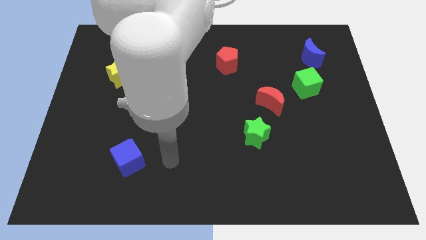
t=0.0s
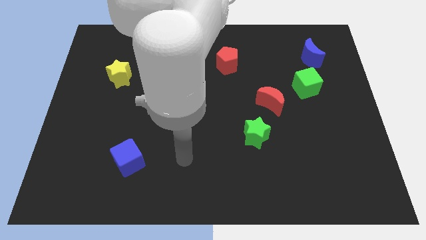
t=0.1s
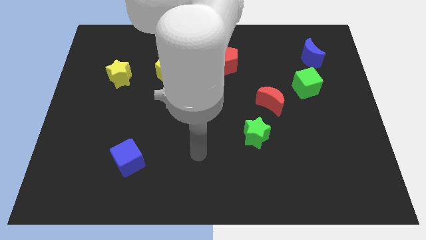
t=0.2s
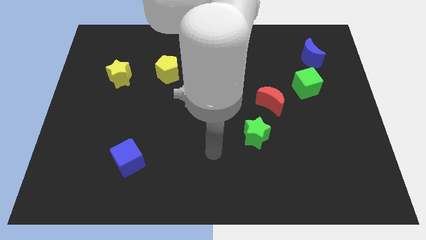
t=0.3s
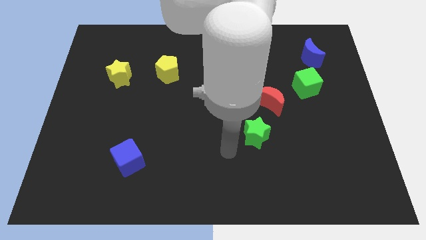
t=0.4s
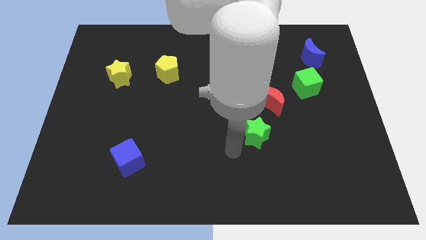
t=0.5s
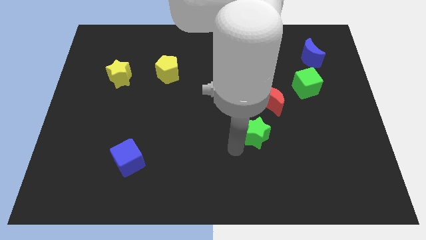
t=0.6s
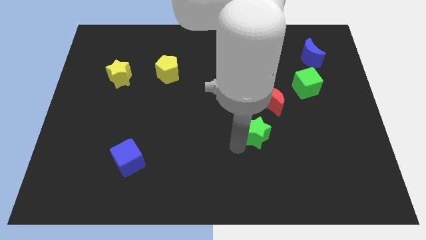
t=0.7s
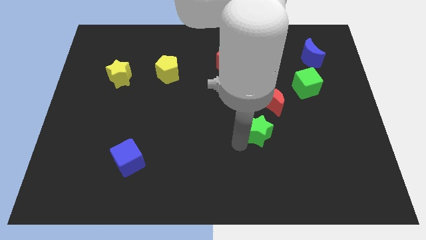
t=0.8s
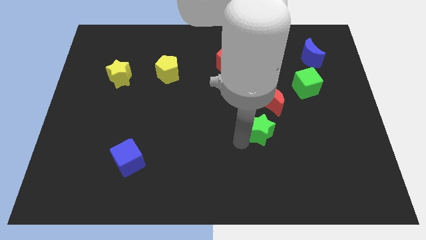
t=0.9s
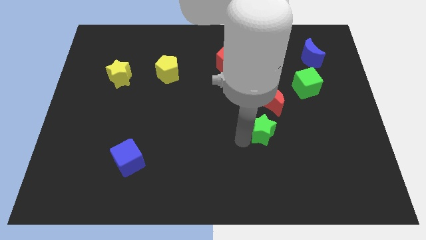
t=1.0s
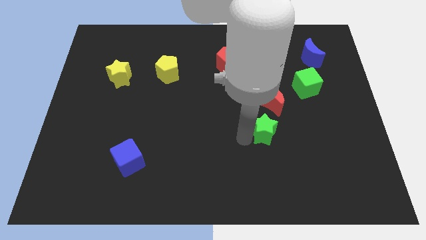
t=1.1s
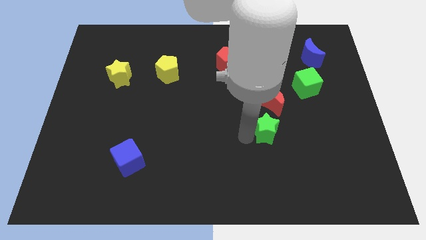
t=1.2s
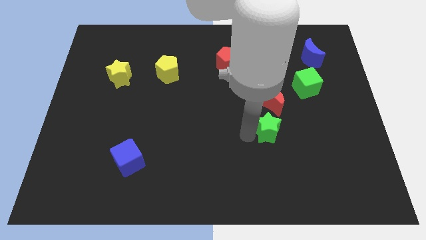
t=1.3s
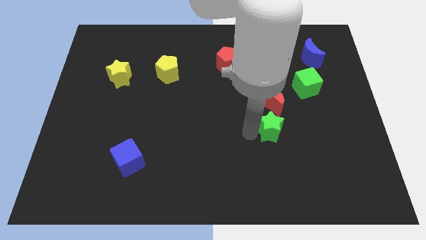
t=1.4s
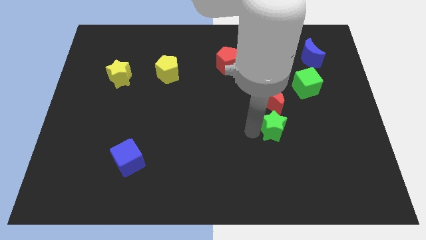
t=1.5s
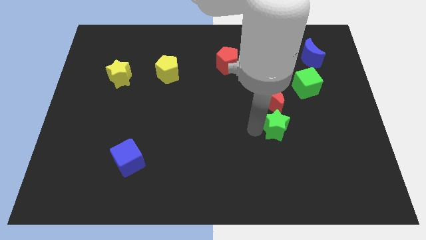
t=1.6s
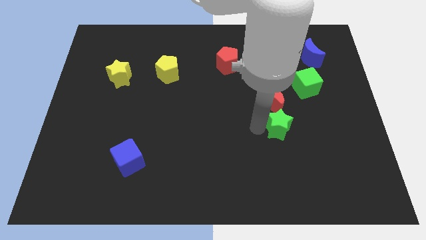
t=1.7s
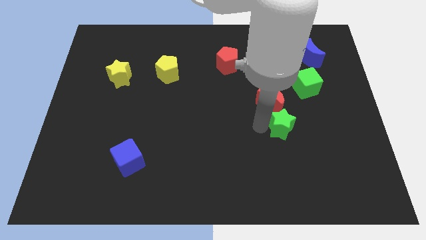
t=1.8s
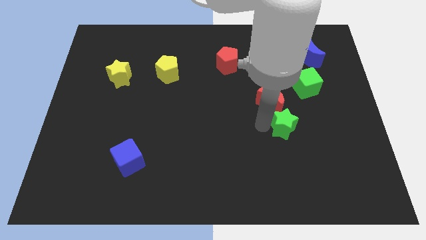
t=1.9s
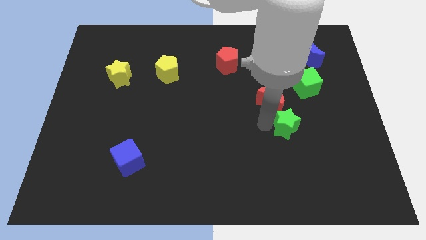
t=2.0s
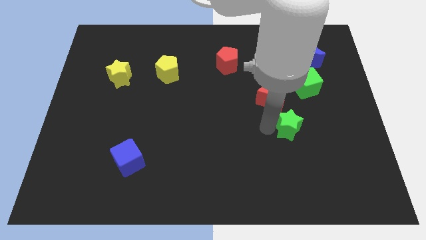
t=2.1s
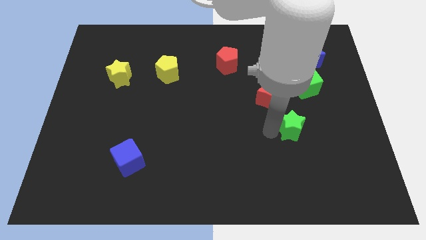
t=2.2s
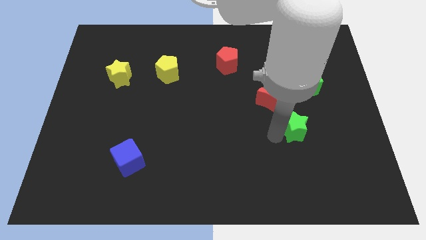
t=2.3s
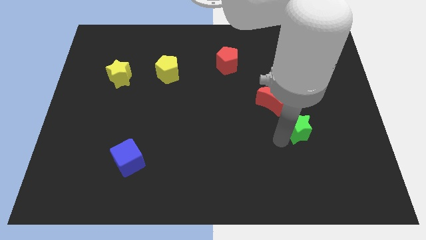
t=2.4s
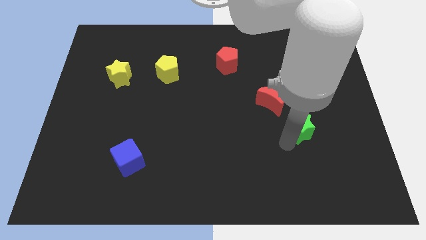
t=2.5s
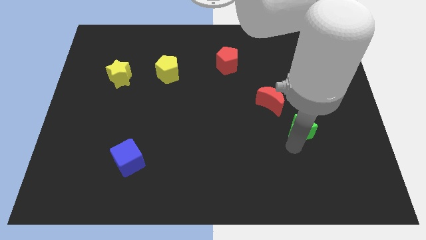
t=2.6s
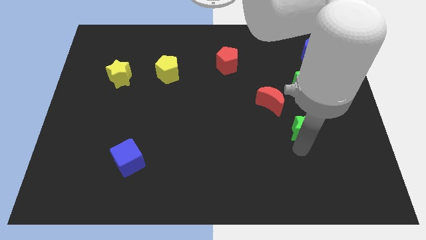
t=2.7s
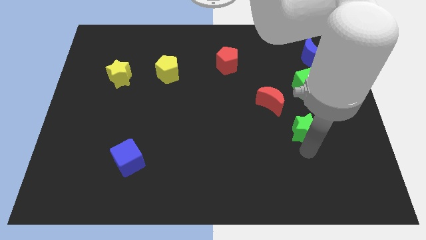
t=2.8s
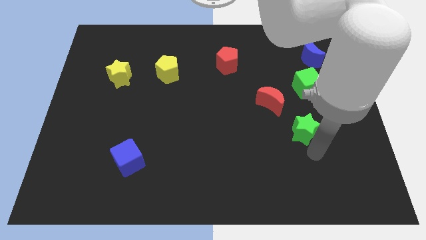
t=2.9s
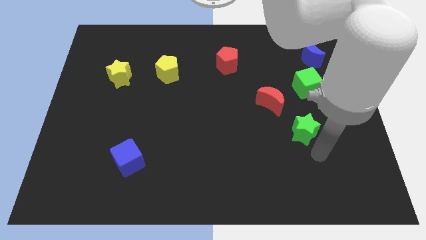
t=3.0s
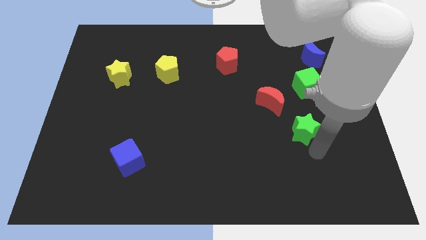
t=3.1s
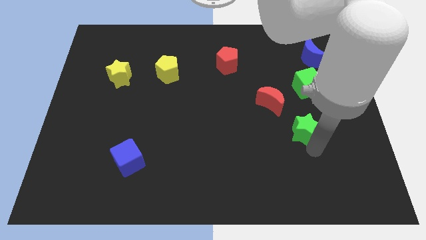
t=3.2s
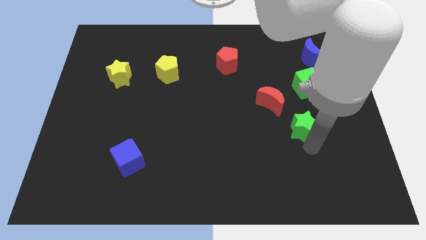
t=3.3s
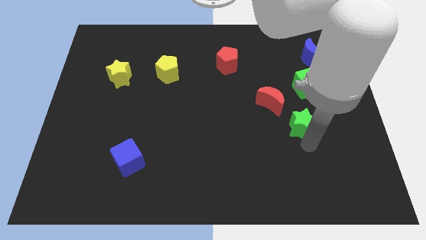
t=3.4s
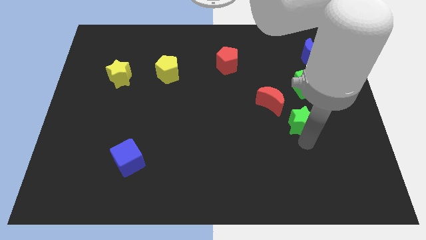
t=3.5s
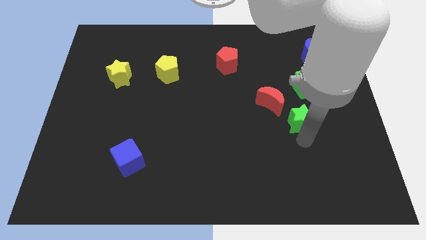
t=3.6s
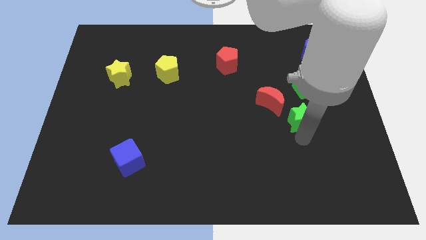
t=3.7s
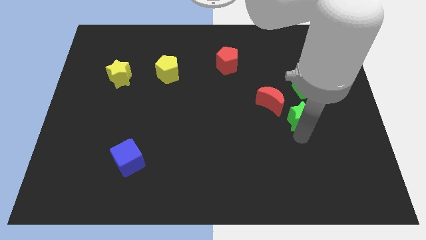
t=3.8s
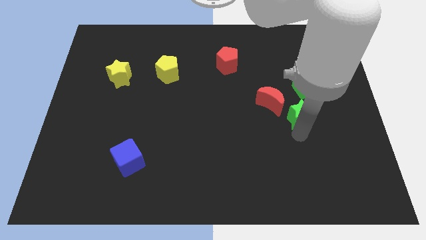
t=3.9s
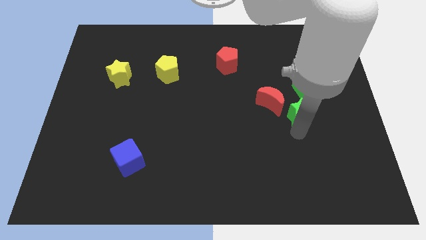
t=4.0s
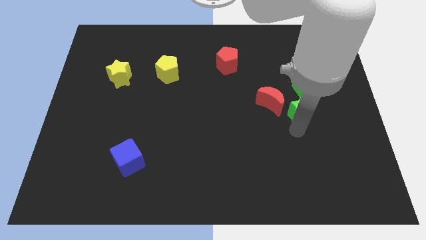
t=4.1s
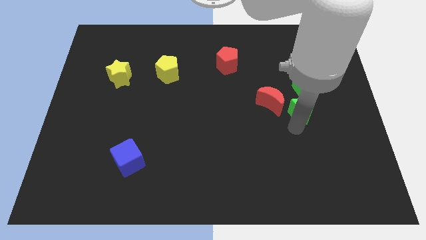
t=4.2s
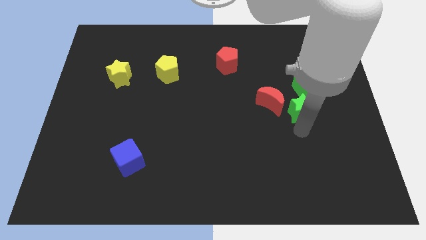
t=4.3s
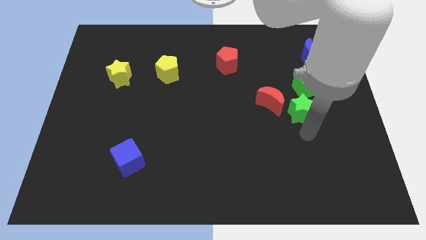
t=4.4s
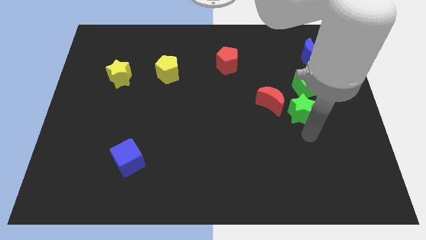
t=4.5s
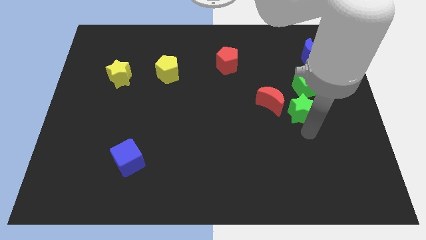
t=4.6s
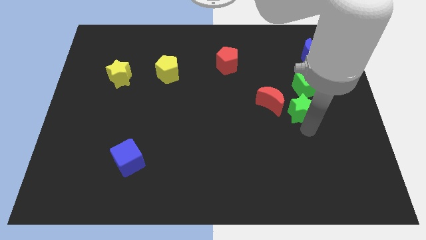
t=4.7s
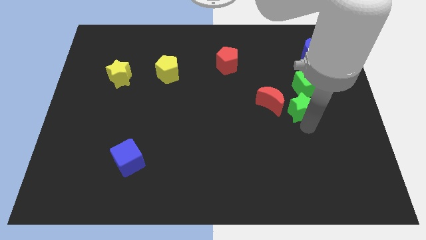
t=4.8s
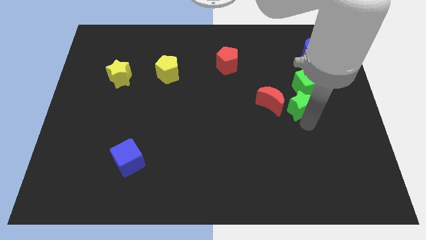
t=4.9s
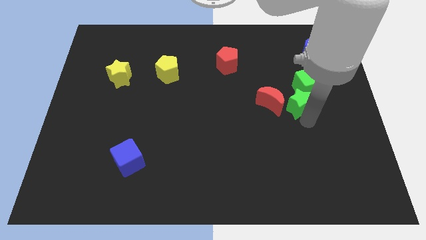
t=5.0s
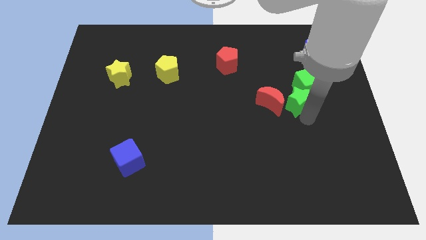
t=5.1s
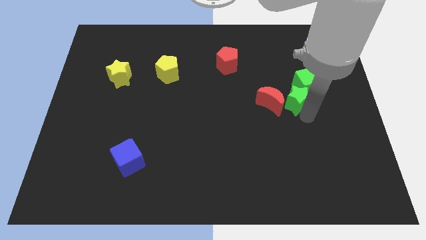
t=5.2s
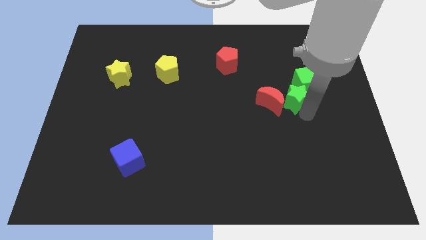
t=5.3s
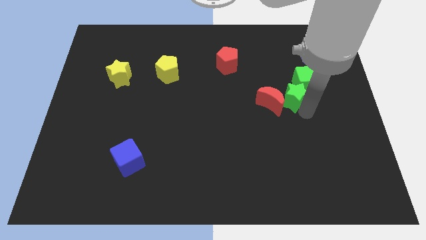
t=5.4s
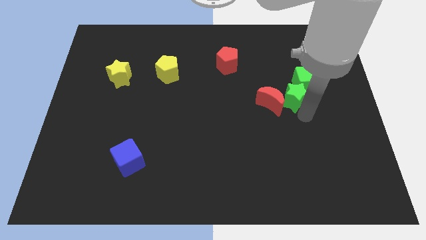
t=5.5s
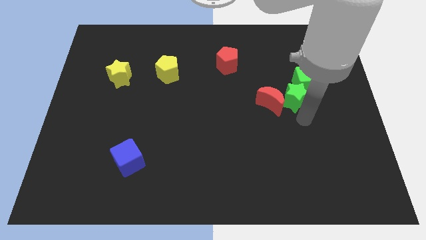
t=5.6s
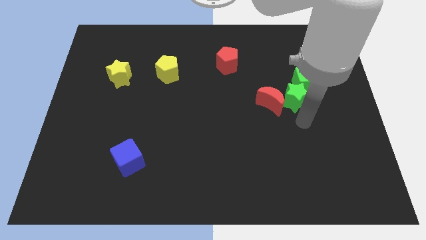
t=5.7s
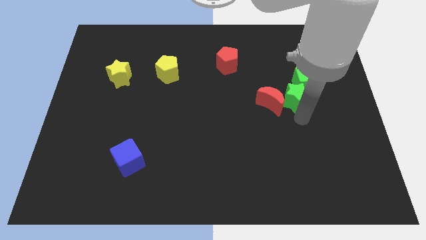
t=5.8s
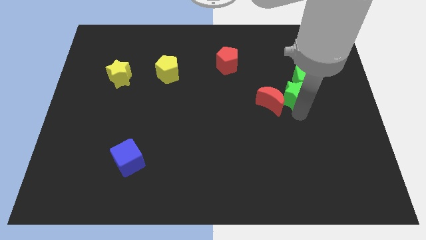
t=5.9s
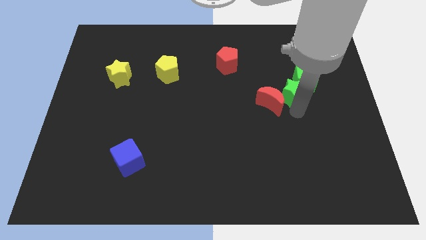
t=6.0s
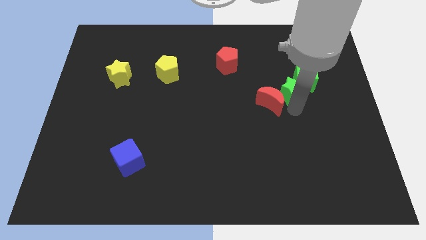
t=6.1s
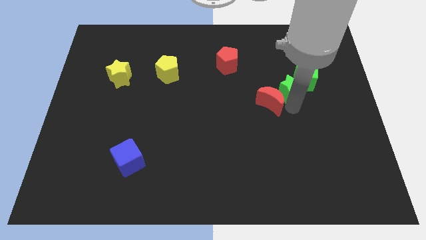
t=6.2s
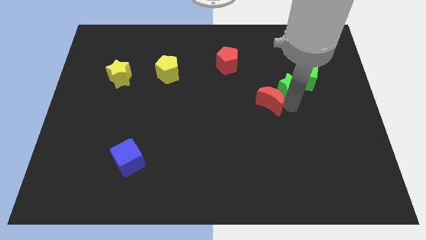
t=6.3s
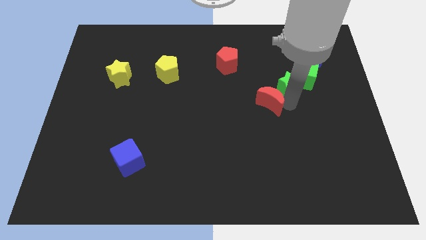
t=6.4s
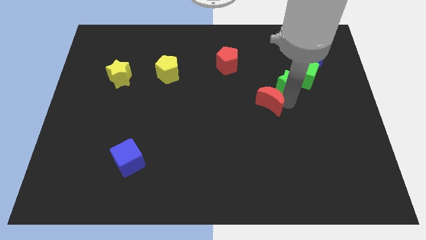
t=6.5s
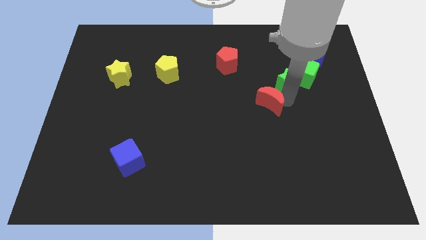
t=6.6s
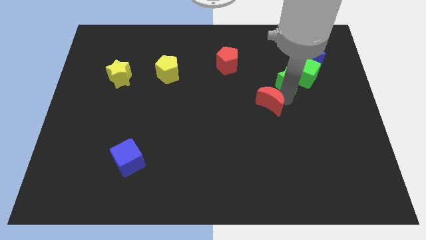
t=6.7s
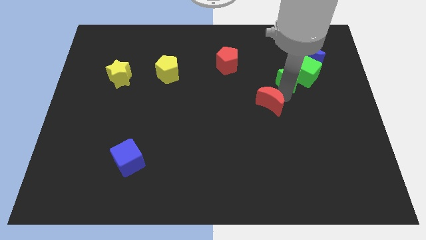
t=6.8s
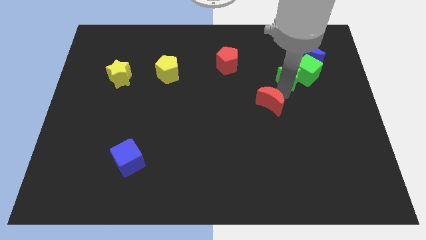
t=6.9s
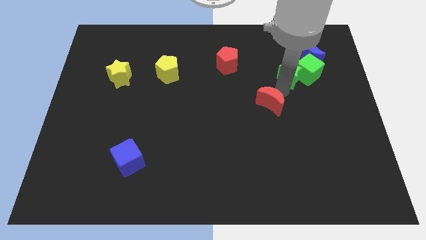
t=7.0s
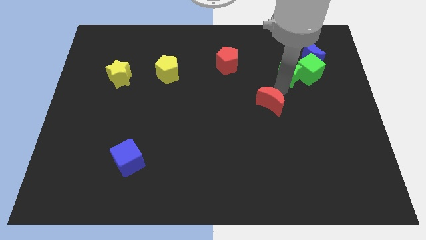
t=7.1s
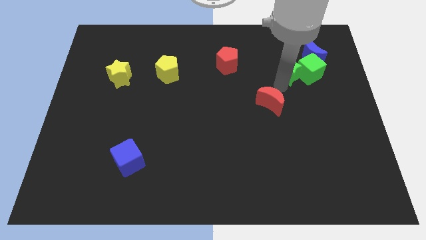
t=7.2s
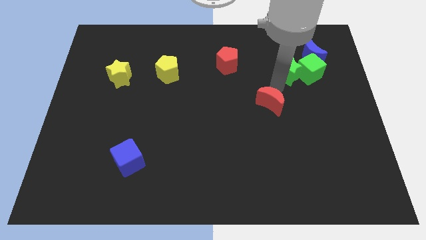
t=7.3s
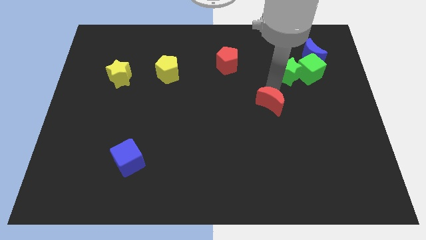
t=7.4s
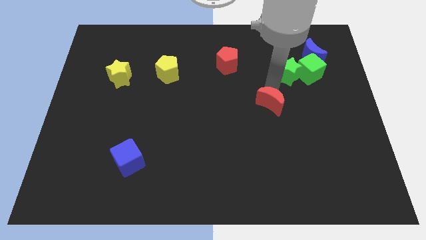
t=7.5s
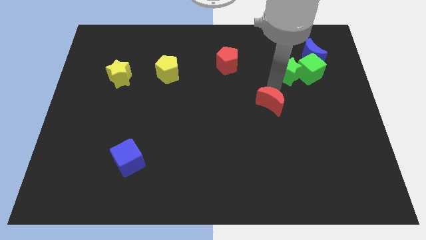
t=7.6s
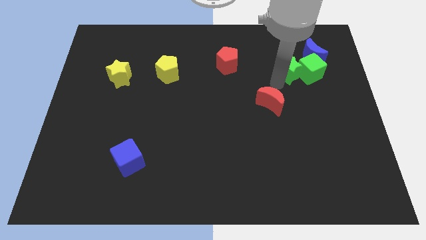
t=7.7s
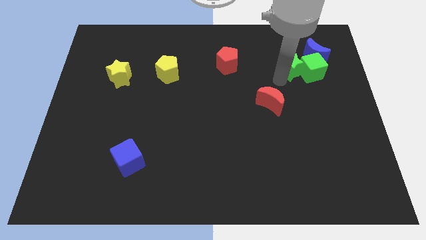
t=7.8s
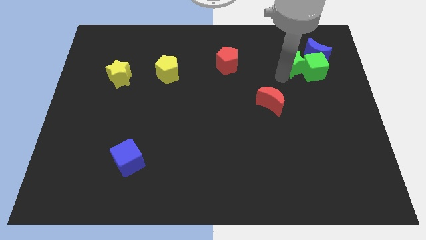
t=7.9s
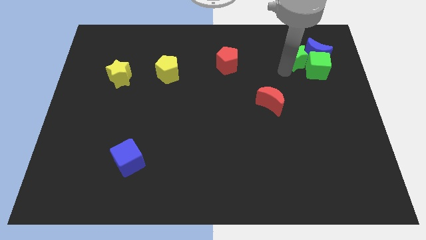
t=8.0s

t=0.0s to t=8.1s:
slide the green star close to the blue moon
